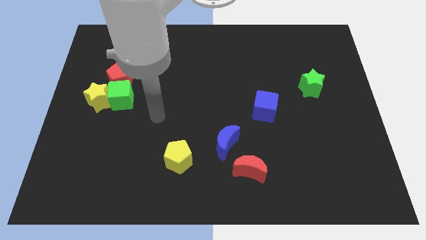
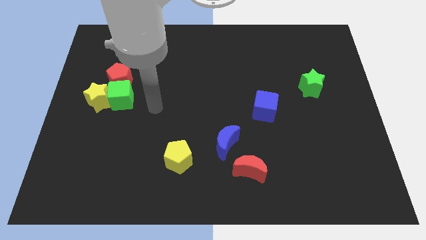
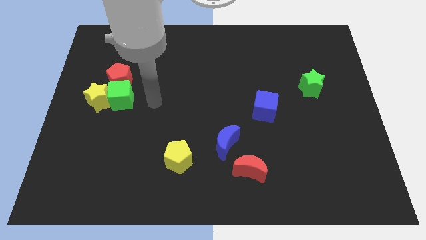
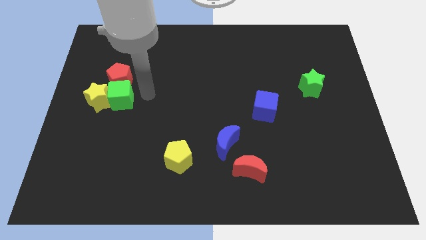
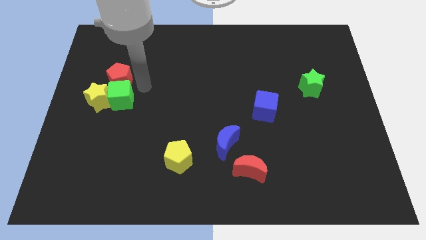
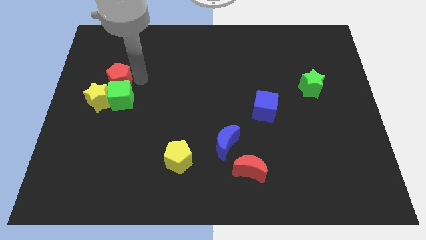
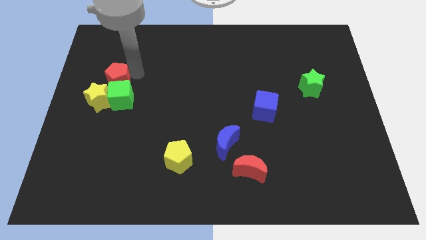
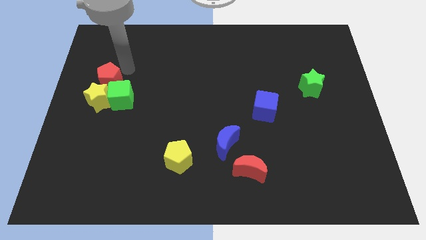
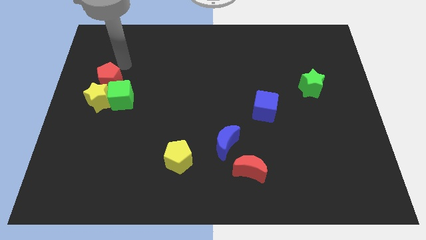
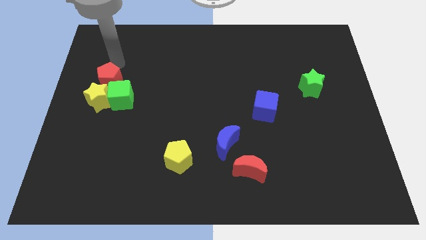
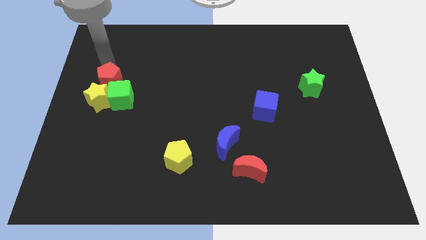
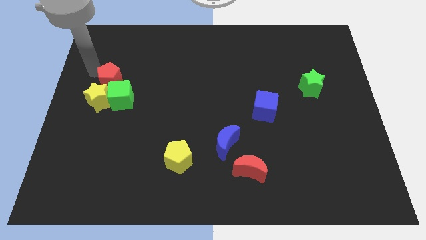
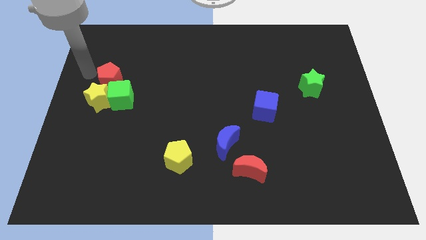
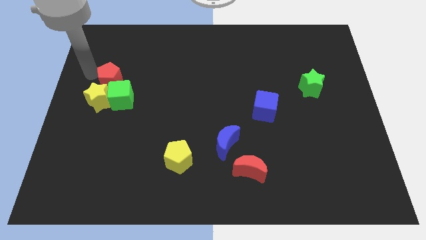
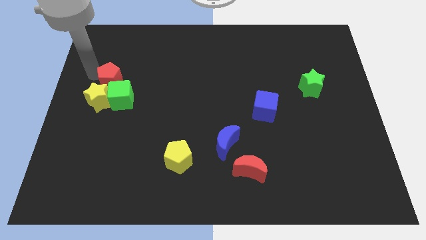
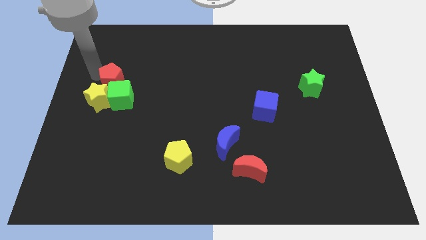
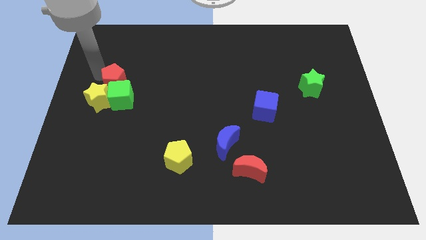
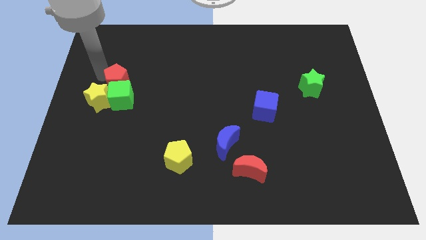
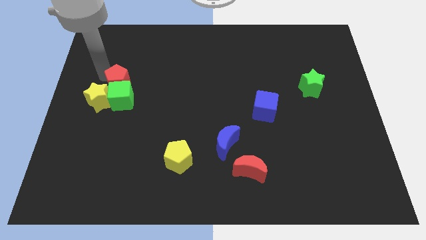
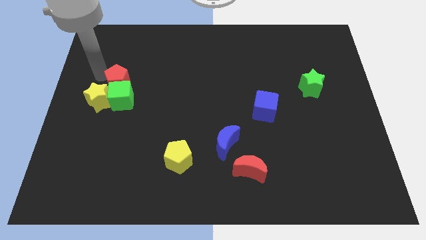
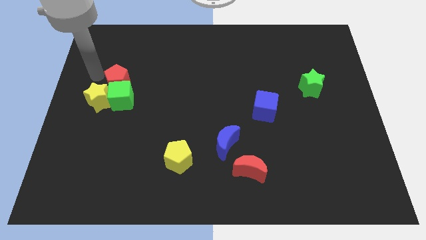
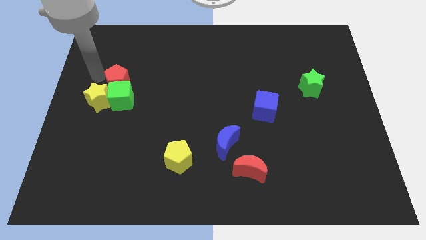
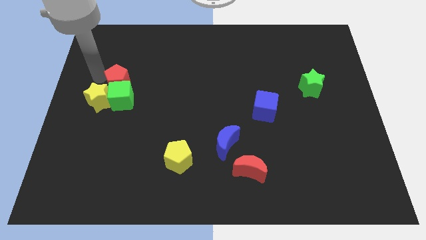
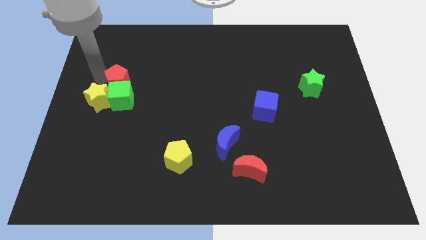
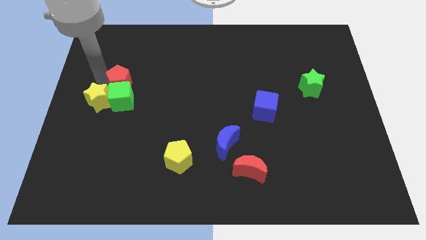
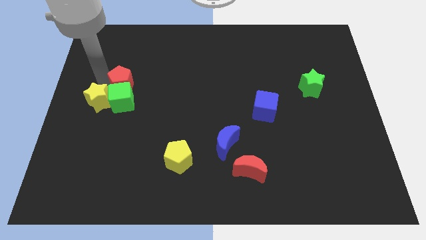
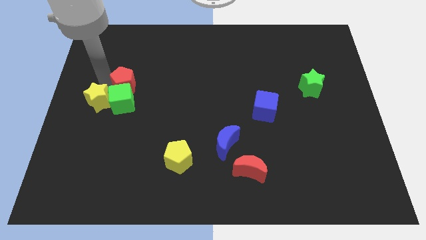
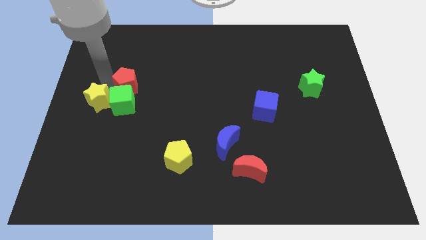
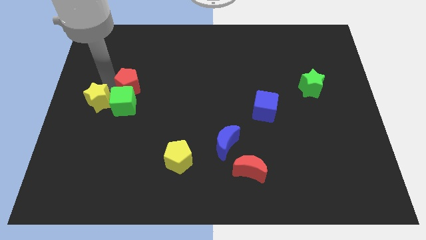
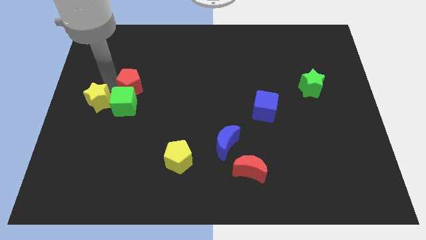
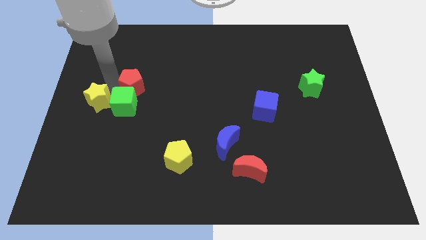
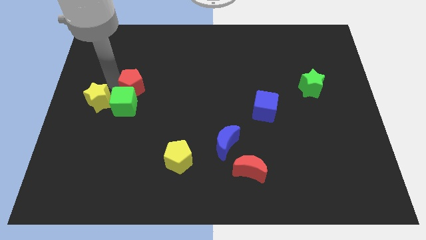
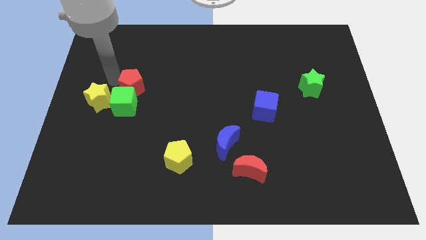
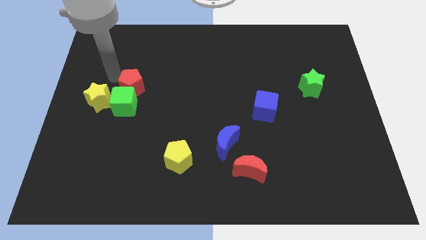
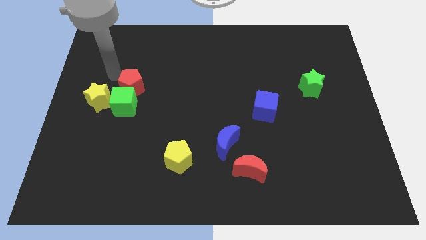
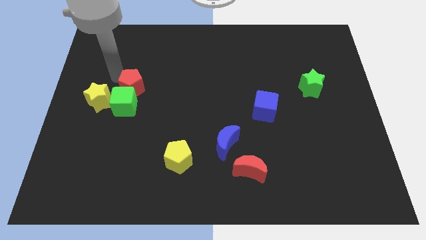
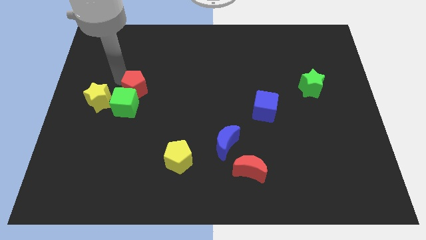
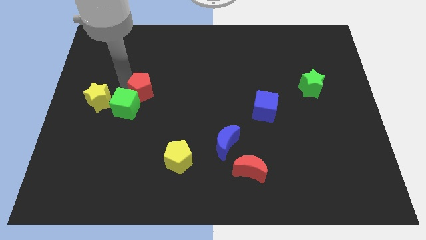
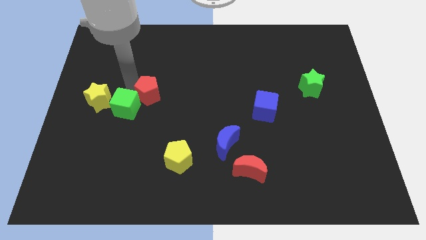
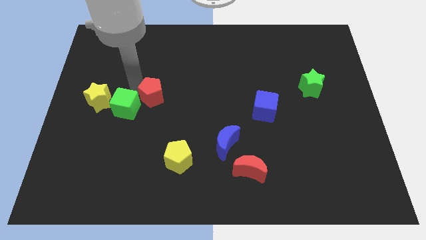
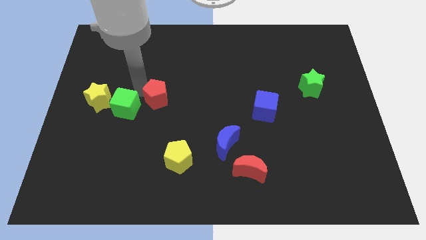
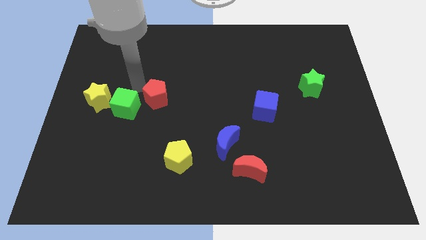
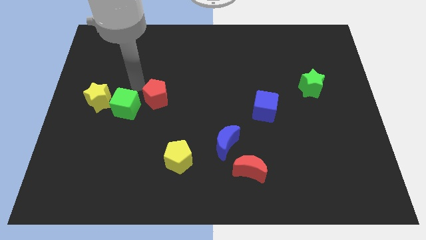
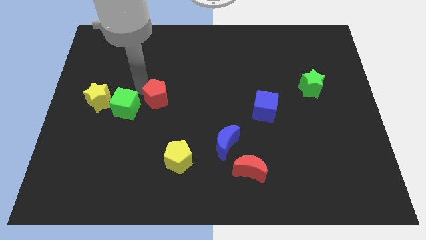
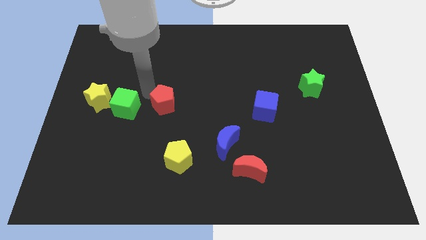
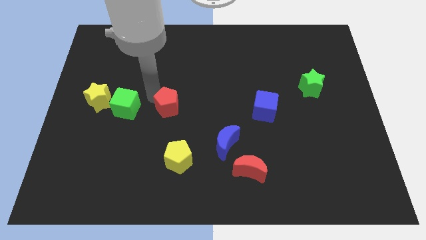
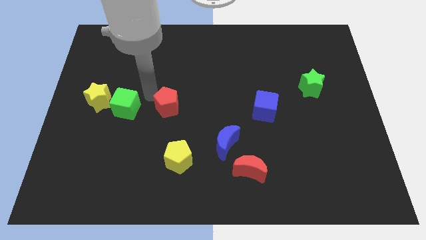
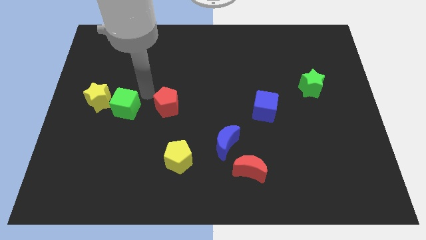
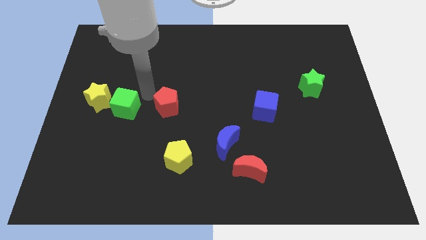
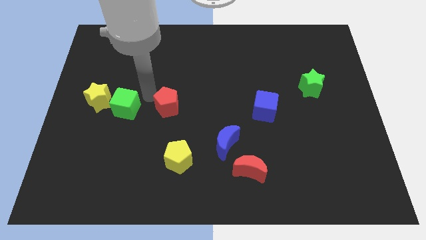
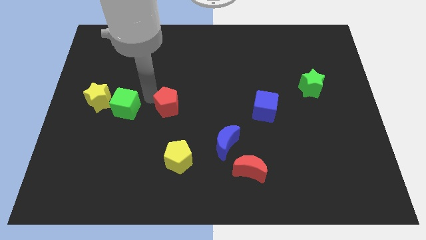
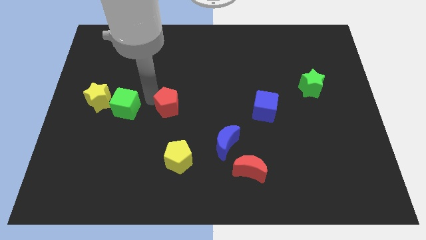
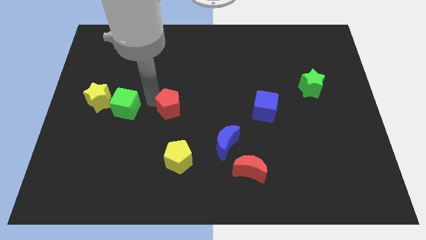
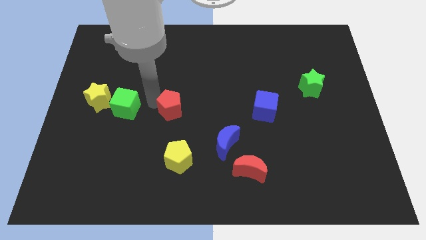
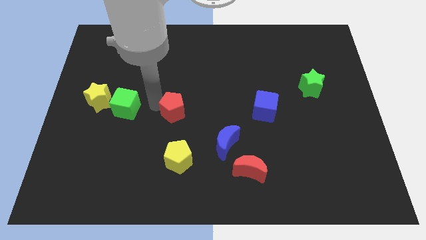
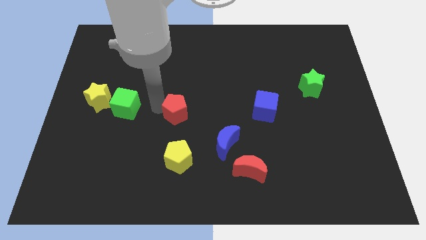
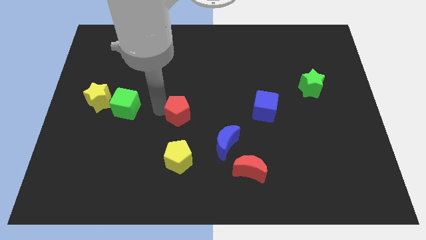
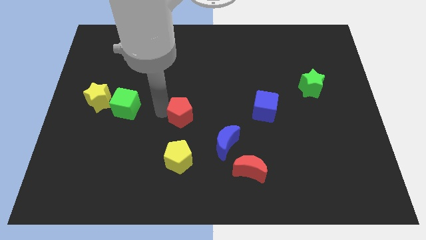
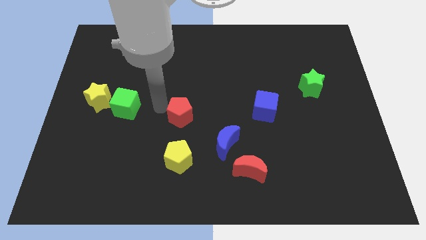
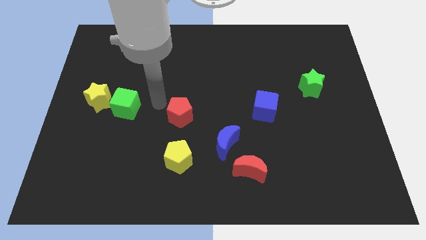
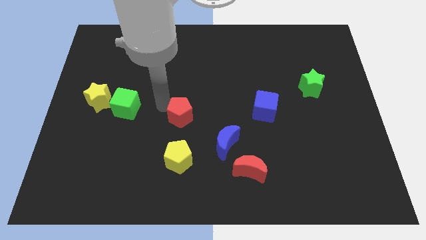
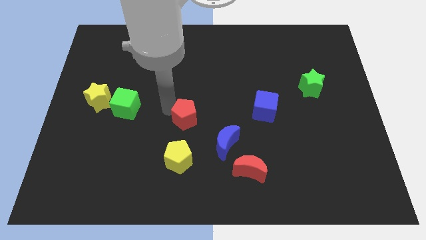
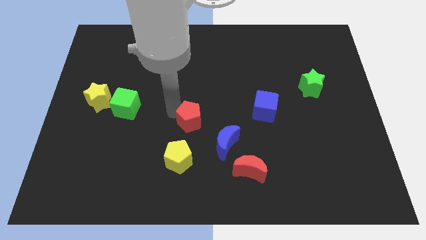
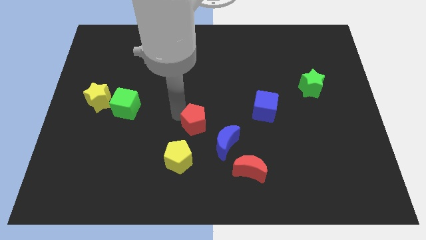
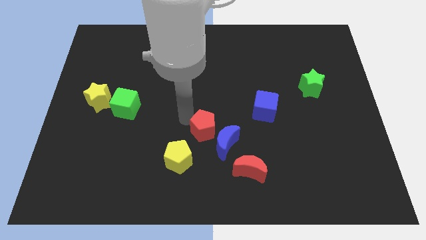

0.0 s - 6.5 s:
slide the red pentagon to the blue moon

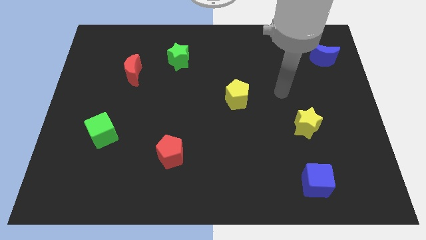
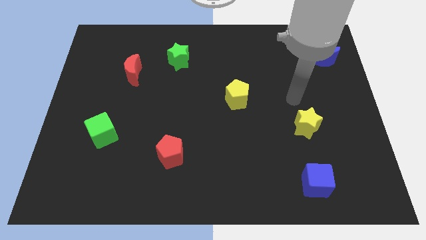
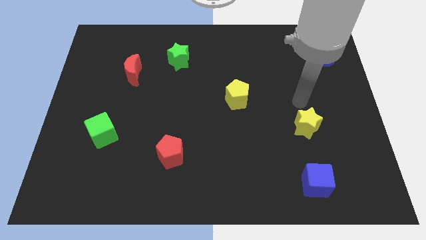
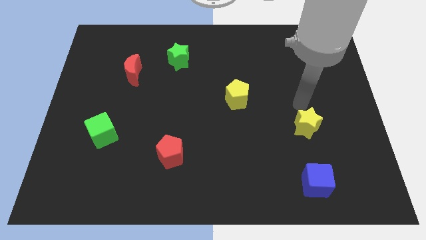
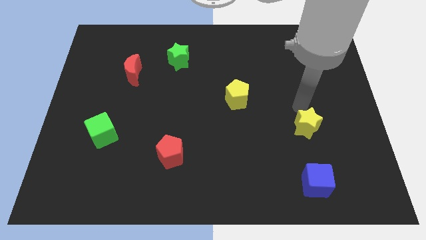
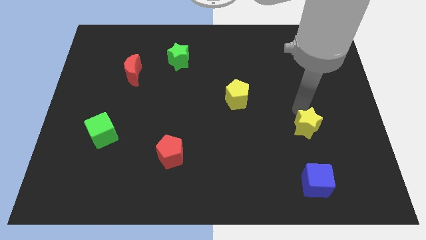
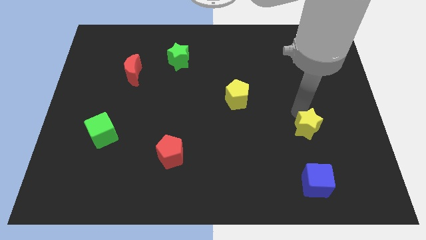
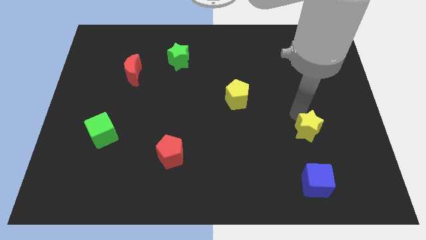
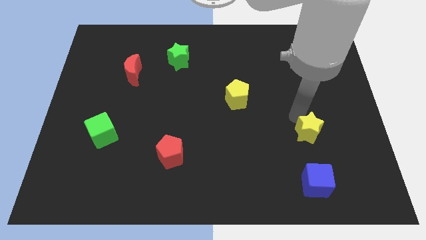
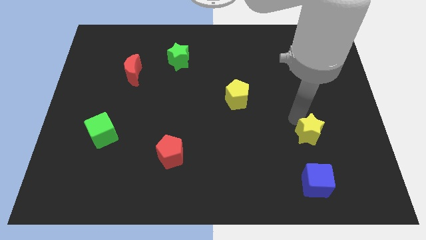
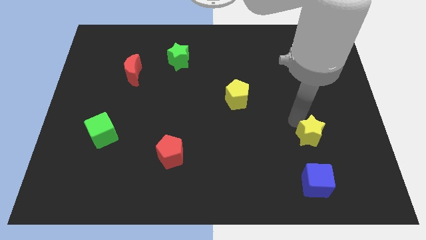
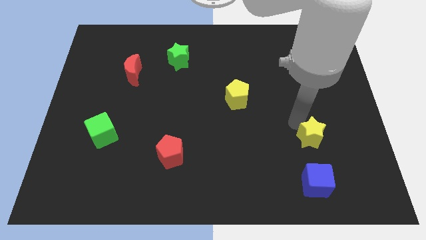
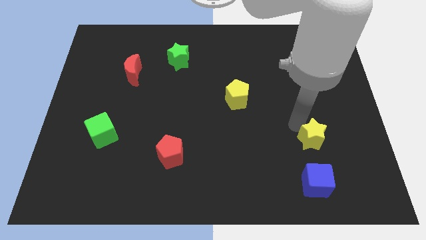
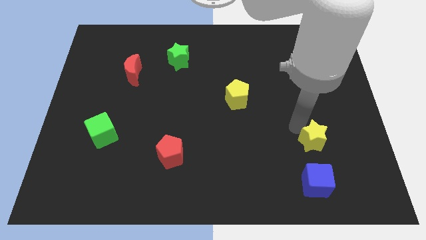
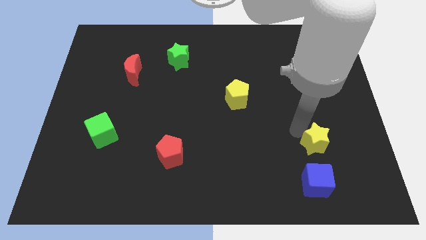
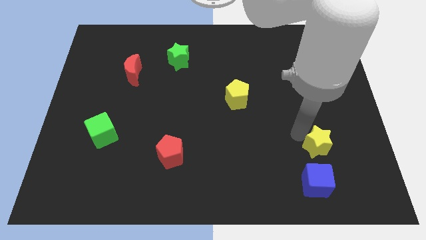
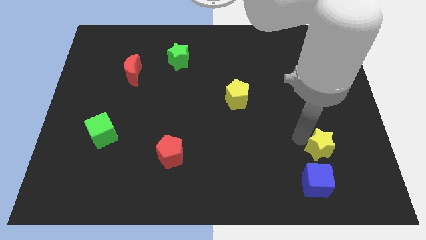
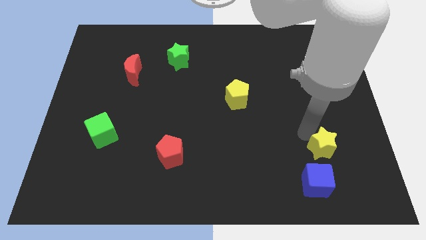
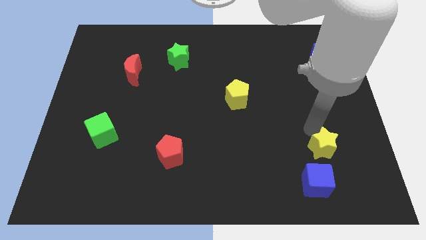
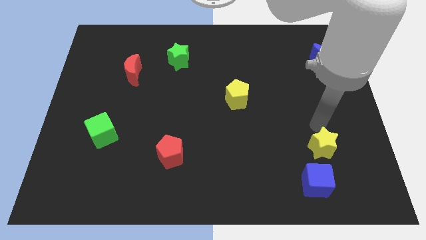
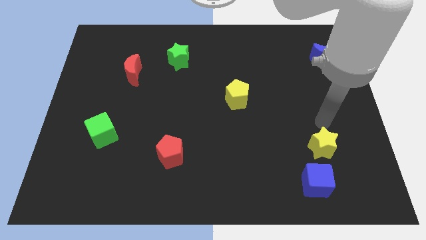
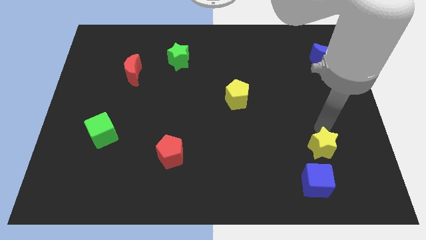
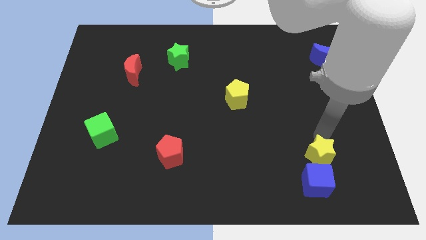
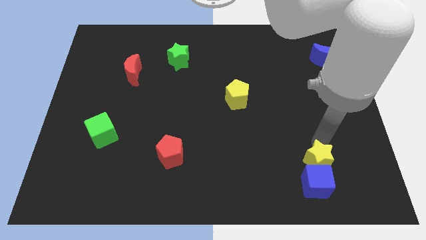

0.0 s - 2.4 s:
push the yellow star close to the blue cube
